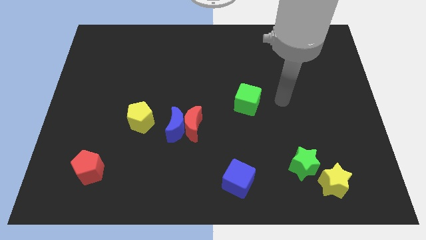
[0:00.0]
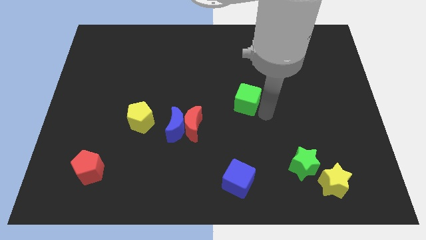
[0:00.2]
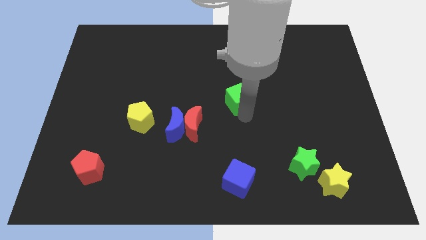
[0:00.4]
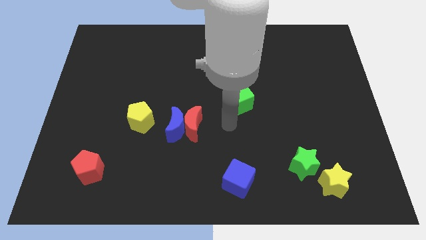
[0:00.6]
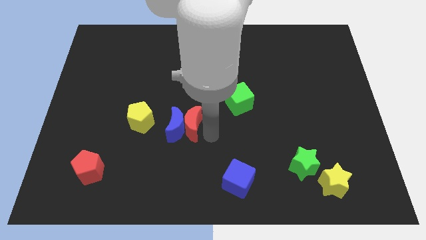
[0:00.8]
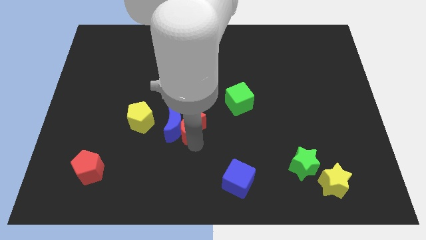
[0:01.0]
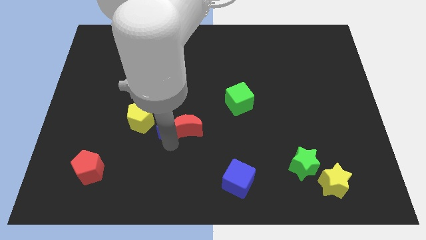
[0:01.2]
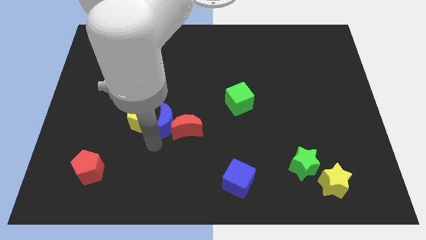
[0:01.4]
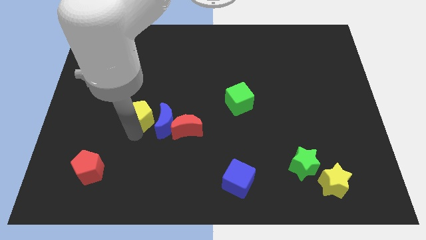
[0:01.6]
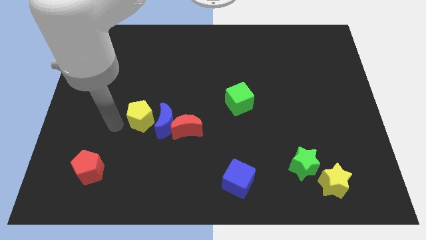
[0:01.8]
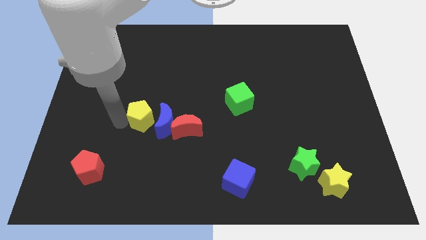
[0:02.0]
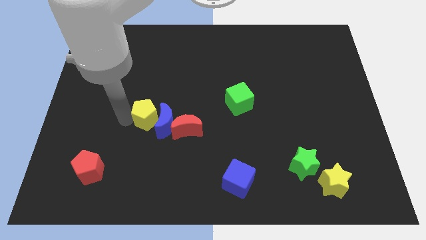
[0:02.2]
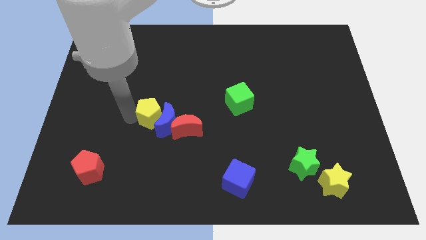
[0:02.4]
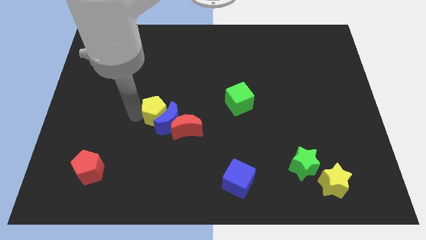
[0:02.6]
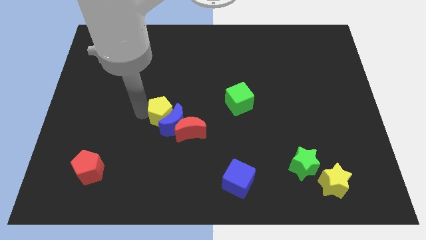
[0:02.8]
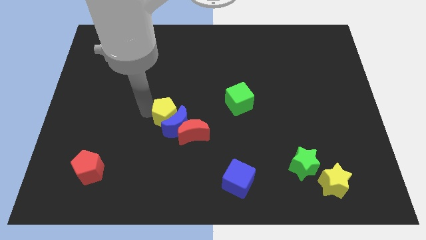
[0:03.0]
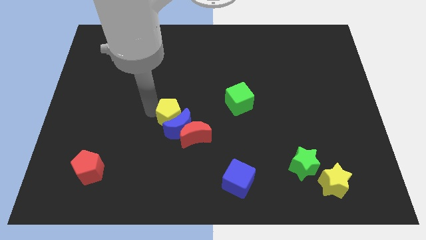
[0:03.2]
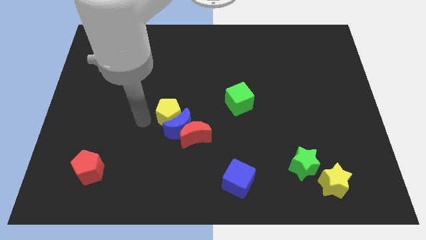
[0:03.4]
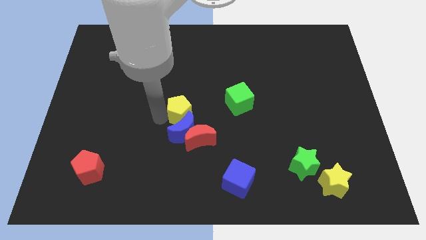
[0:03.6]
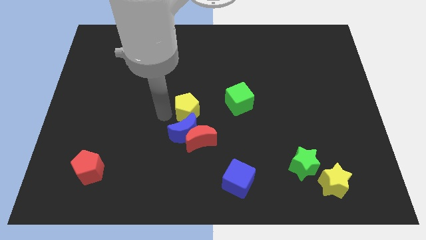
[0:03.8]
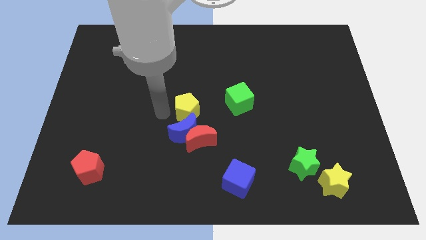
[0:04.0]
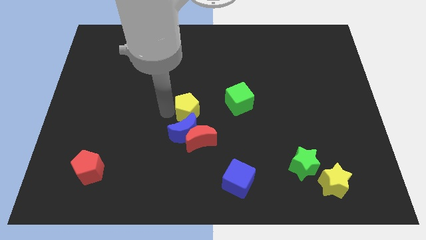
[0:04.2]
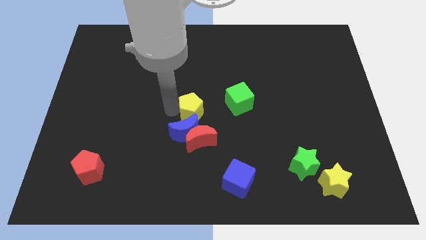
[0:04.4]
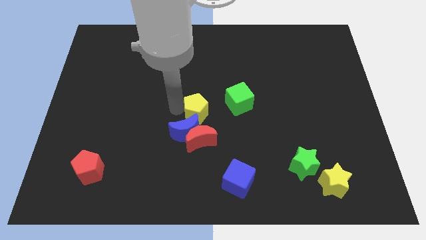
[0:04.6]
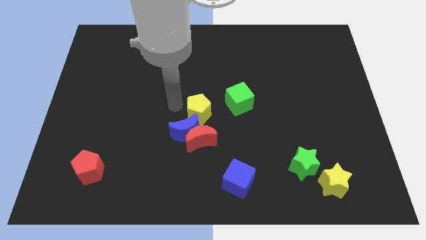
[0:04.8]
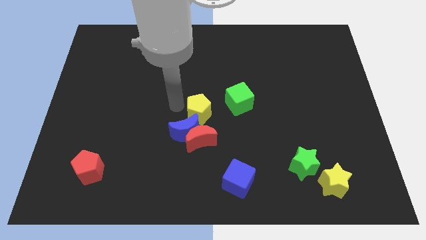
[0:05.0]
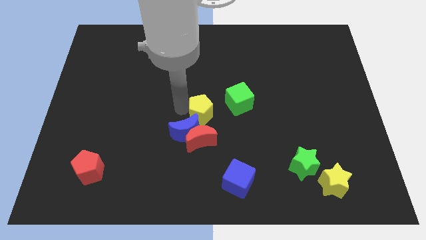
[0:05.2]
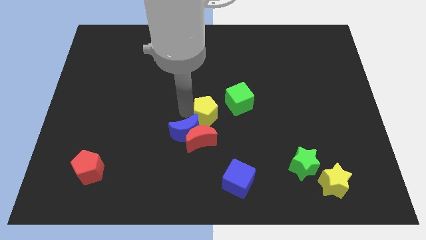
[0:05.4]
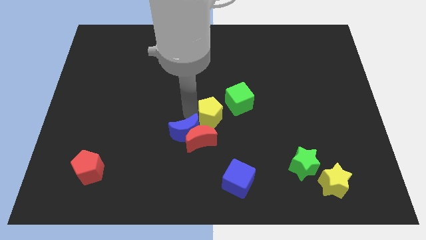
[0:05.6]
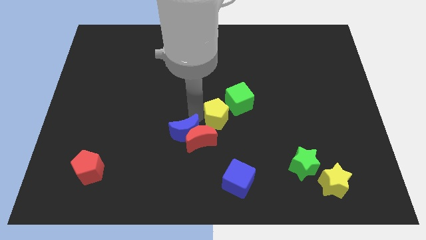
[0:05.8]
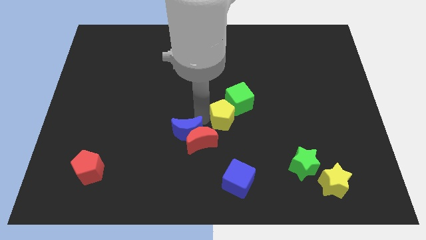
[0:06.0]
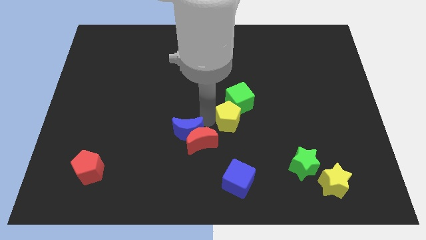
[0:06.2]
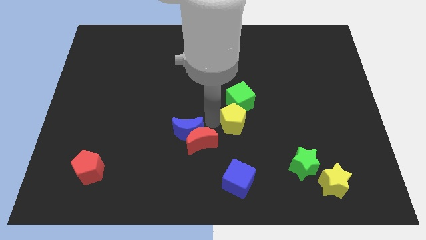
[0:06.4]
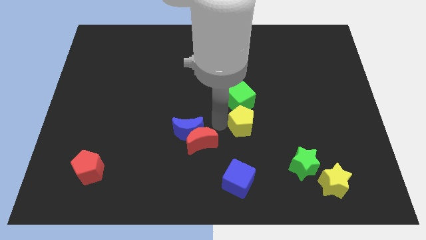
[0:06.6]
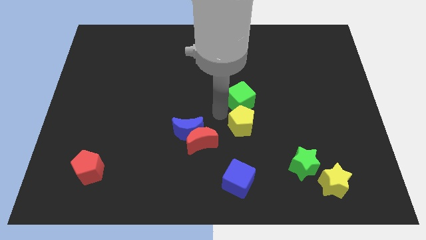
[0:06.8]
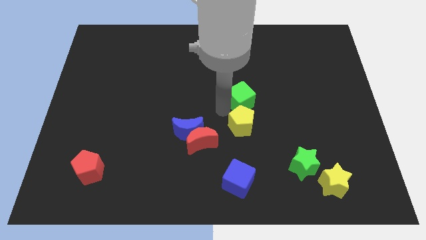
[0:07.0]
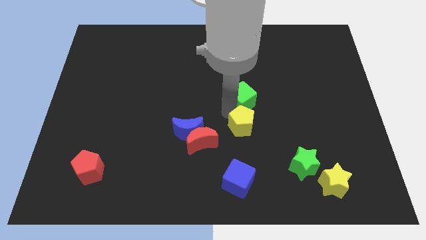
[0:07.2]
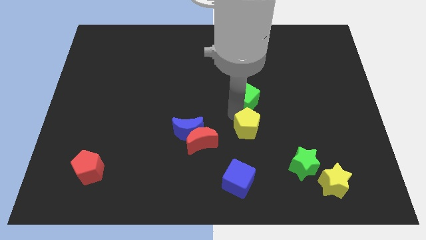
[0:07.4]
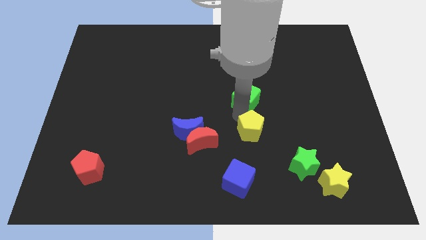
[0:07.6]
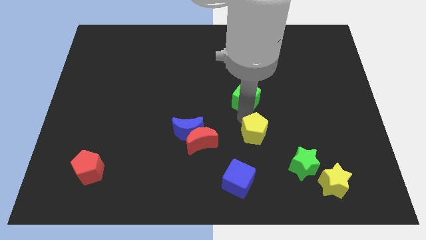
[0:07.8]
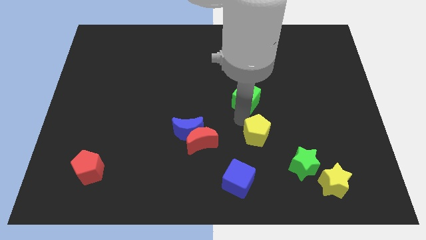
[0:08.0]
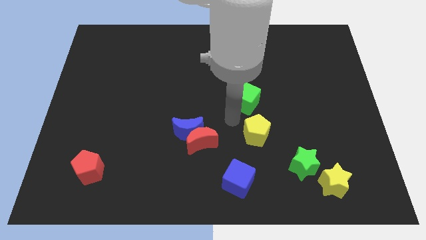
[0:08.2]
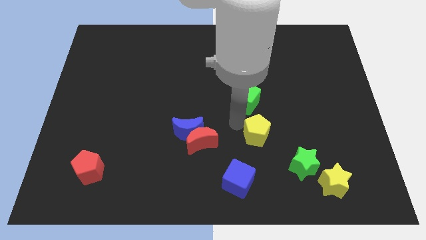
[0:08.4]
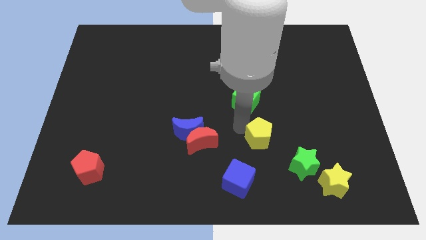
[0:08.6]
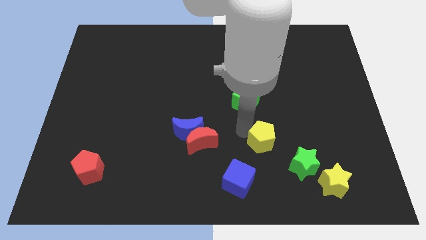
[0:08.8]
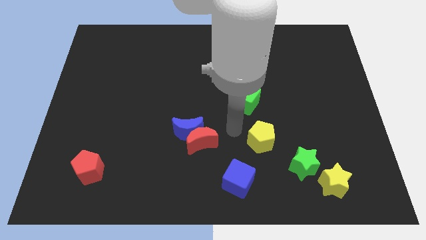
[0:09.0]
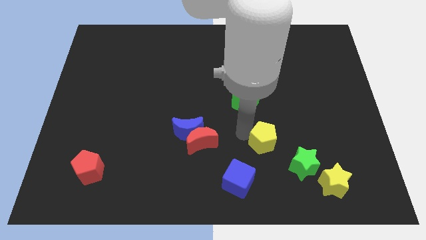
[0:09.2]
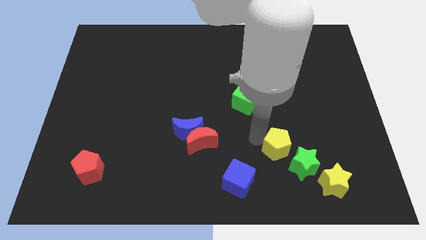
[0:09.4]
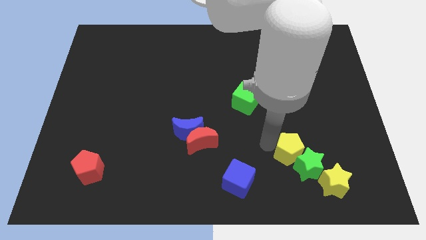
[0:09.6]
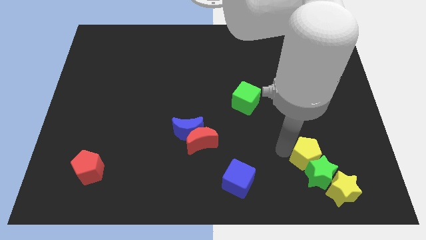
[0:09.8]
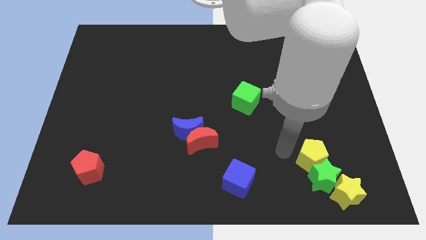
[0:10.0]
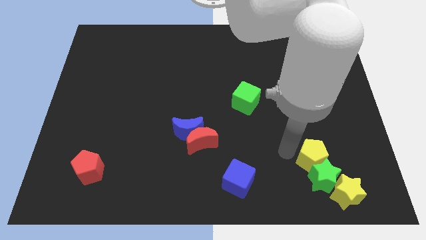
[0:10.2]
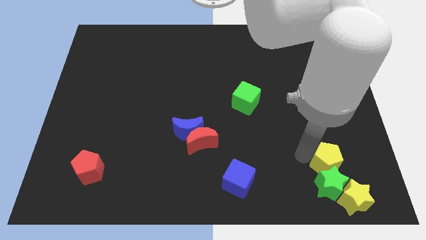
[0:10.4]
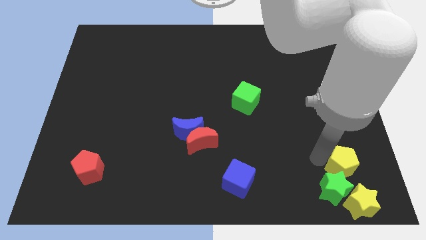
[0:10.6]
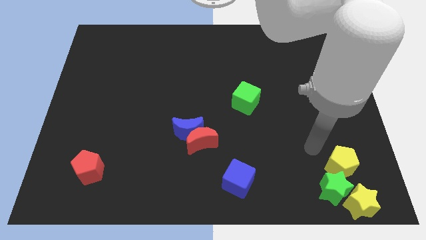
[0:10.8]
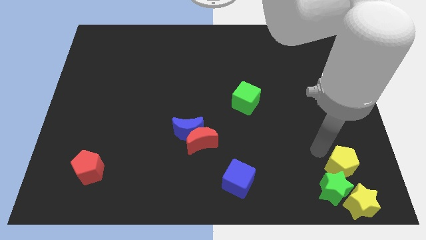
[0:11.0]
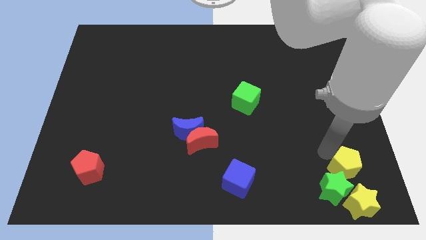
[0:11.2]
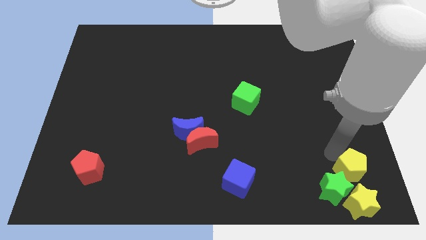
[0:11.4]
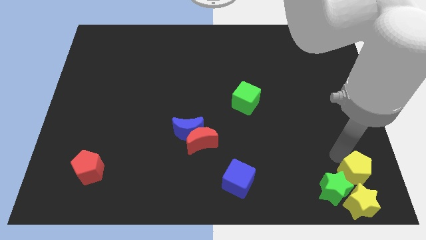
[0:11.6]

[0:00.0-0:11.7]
slide the yellow pentagon to the bottom right corner

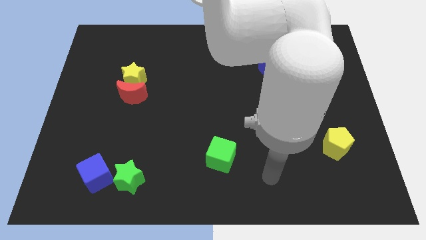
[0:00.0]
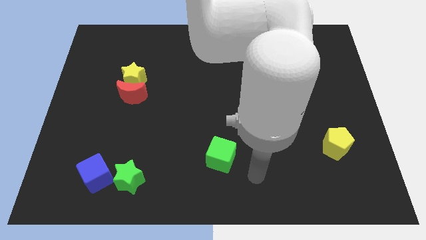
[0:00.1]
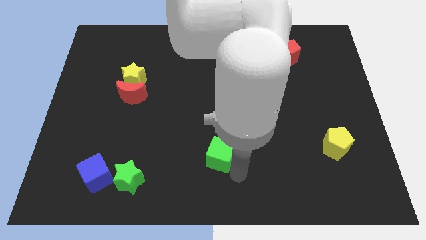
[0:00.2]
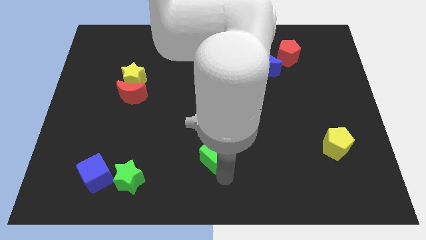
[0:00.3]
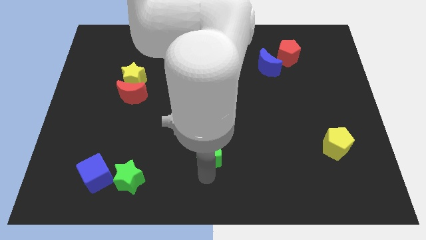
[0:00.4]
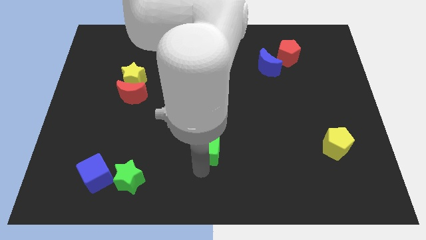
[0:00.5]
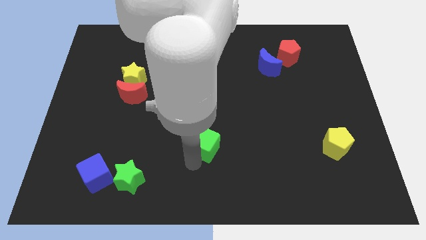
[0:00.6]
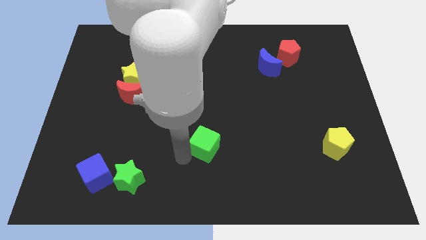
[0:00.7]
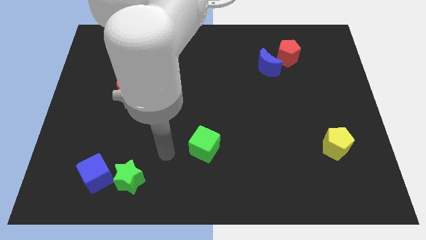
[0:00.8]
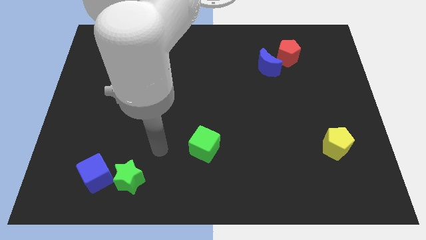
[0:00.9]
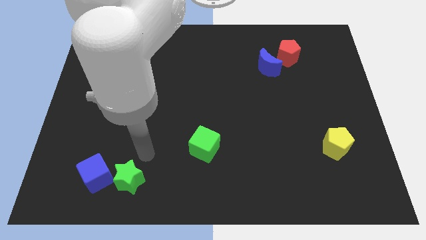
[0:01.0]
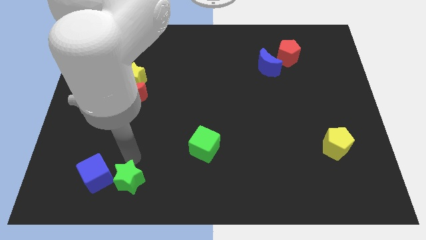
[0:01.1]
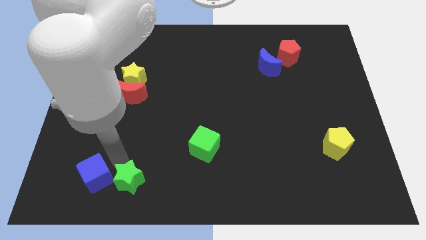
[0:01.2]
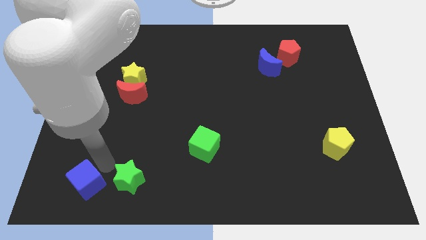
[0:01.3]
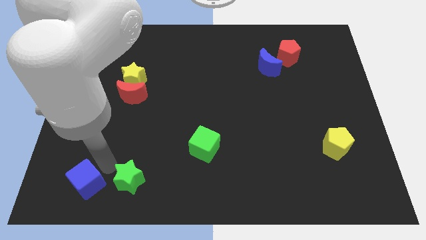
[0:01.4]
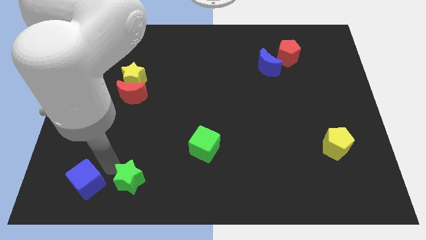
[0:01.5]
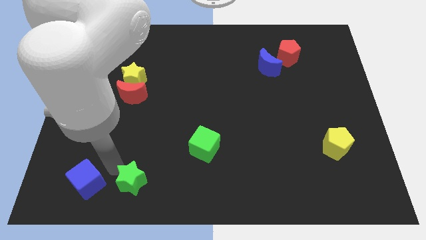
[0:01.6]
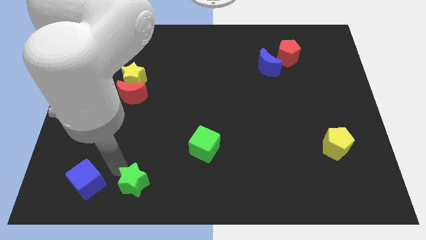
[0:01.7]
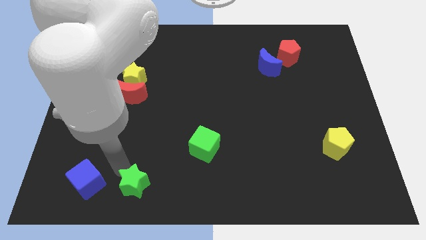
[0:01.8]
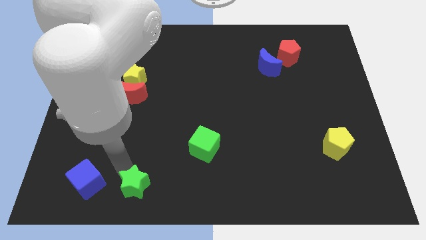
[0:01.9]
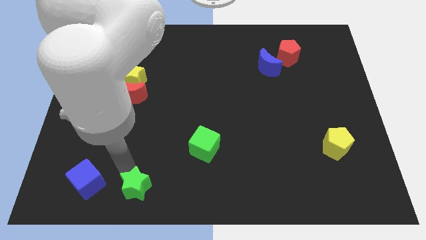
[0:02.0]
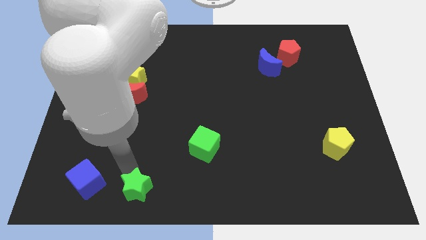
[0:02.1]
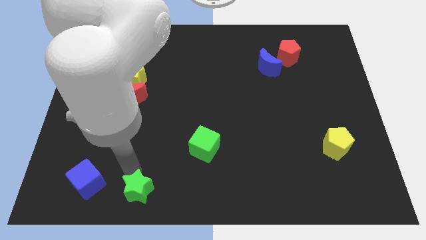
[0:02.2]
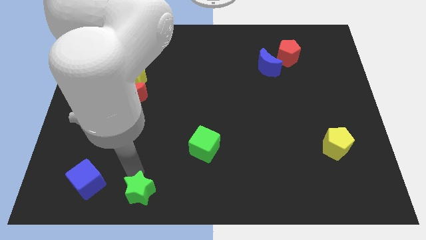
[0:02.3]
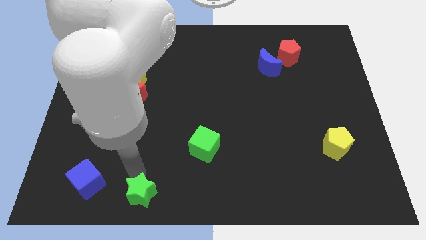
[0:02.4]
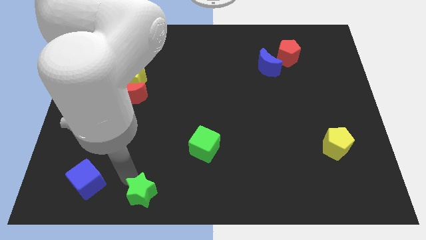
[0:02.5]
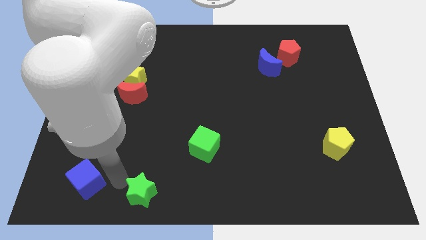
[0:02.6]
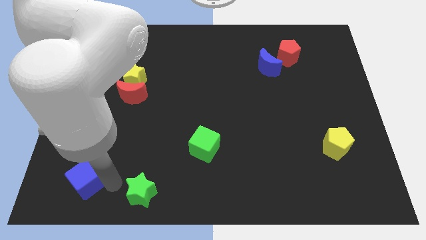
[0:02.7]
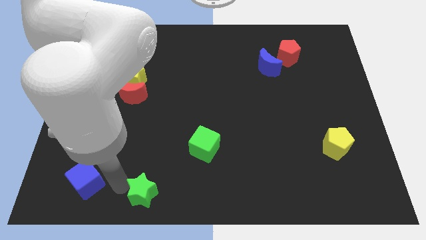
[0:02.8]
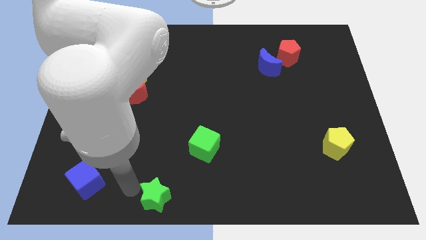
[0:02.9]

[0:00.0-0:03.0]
put the green star to the bottom side
